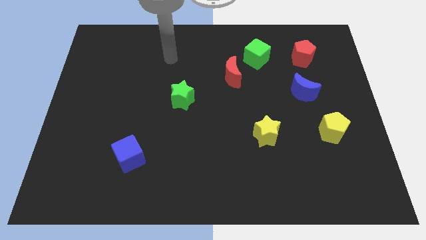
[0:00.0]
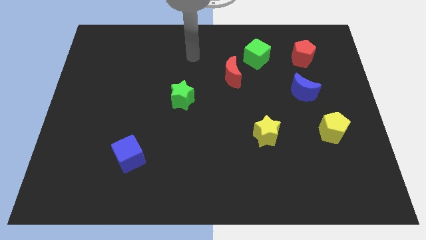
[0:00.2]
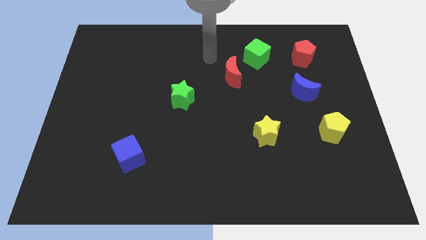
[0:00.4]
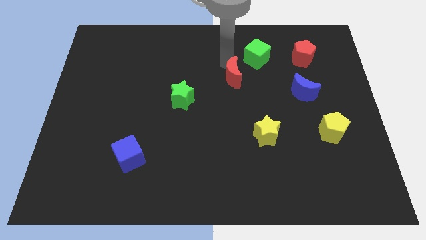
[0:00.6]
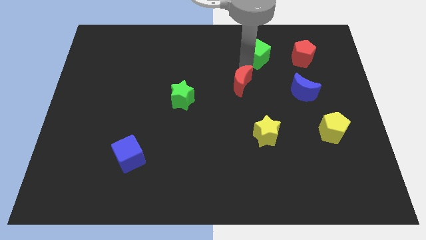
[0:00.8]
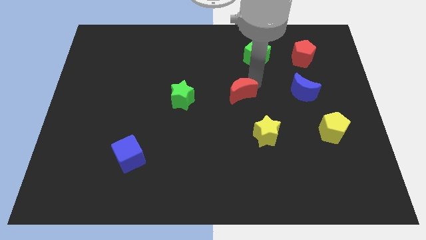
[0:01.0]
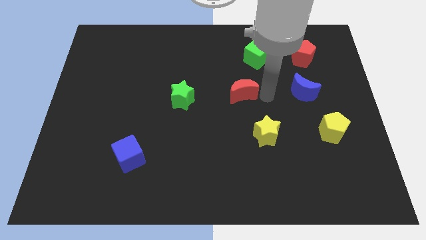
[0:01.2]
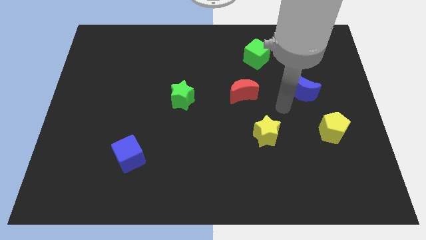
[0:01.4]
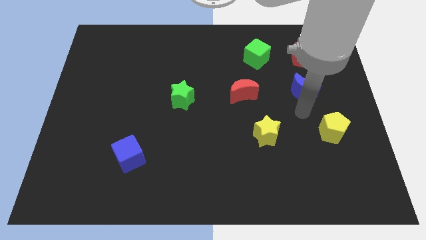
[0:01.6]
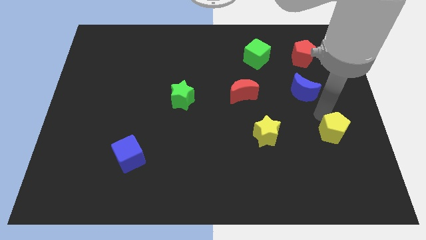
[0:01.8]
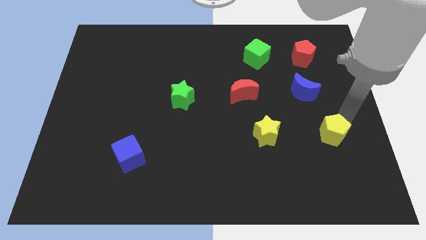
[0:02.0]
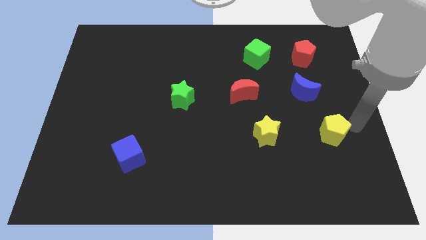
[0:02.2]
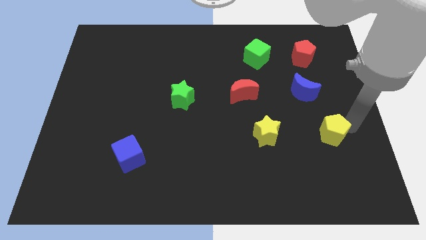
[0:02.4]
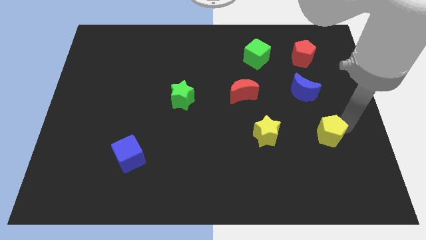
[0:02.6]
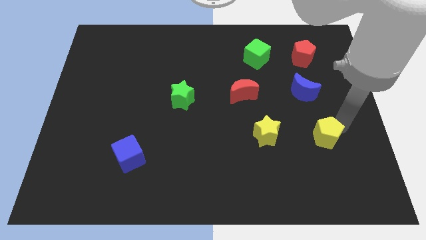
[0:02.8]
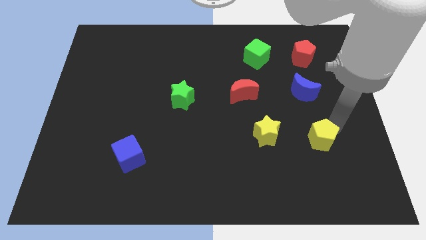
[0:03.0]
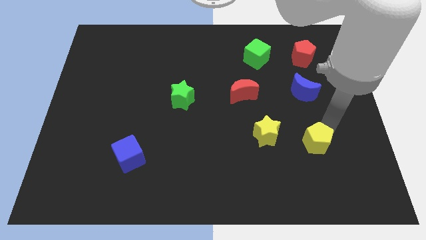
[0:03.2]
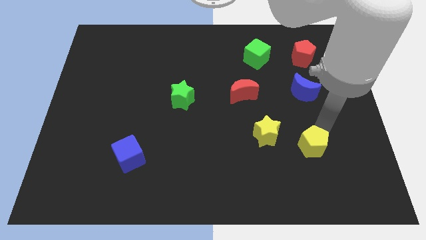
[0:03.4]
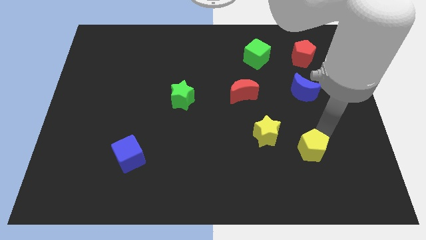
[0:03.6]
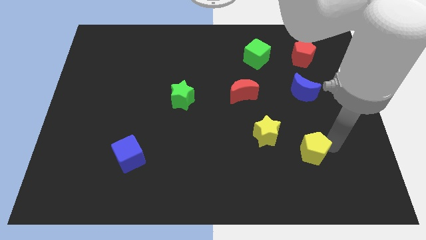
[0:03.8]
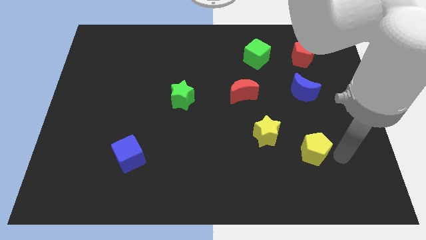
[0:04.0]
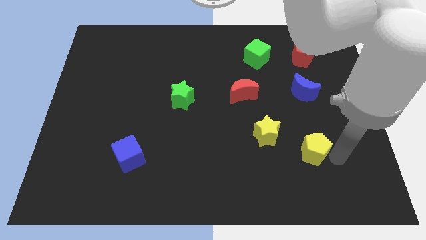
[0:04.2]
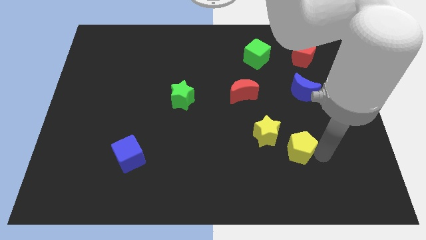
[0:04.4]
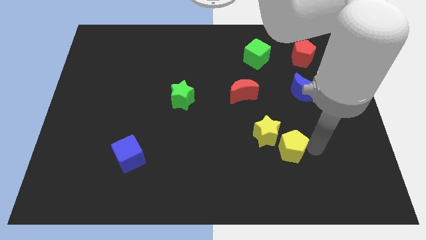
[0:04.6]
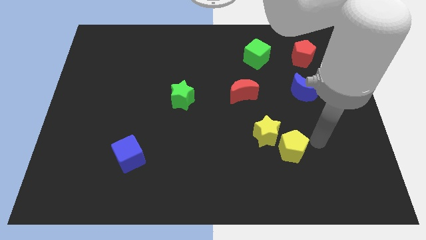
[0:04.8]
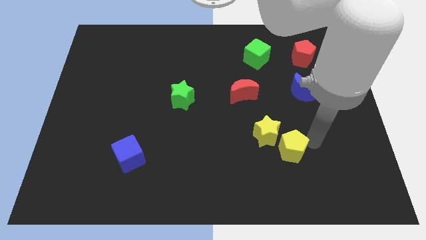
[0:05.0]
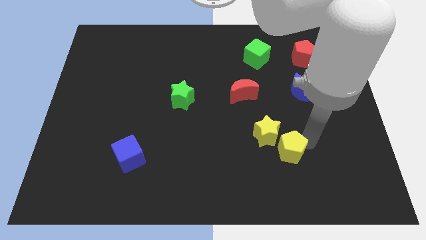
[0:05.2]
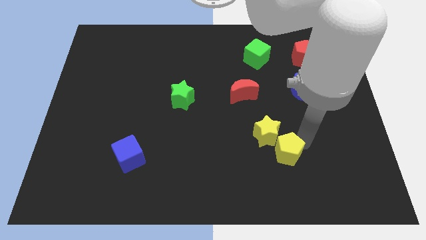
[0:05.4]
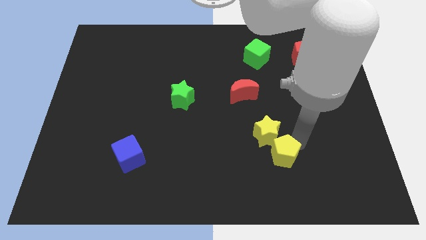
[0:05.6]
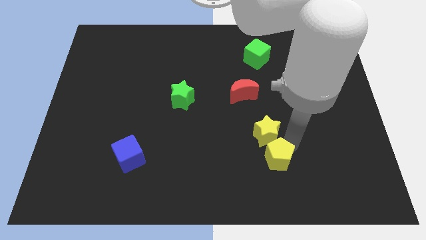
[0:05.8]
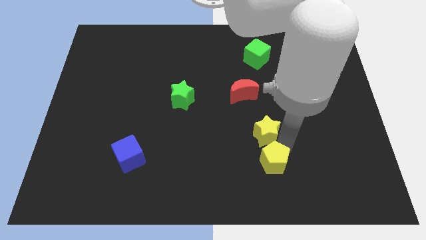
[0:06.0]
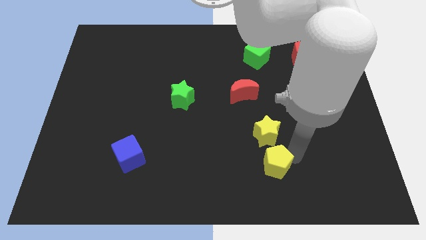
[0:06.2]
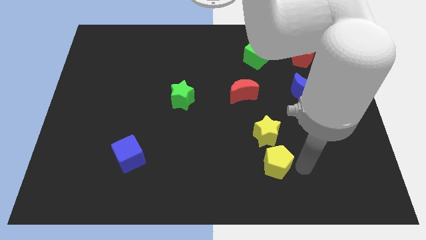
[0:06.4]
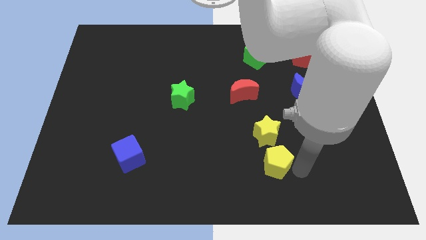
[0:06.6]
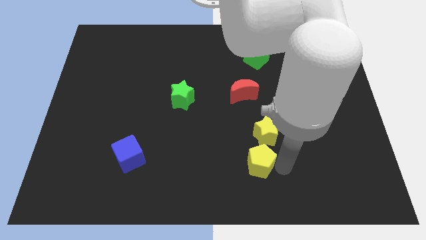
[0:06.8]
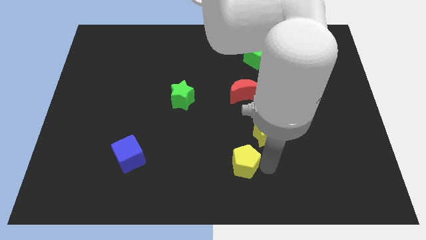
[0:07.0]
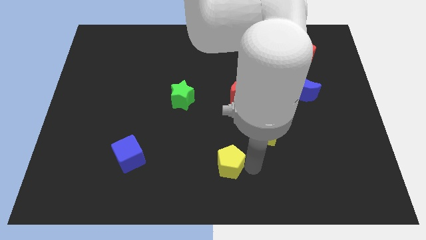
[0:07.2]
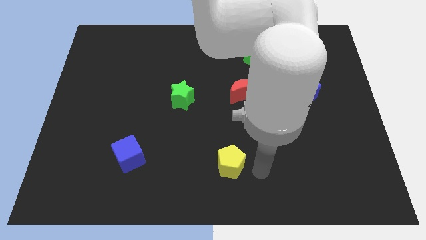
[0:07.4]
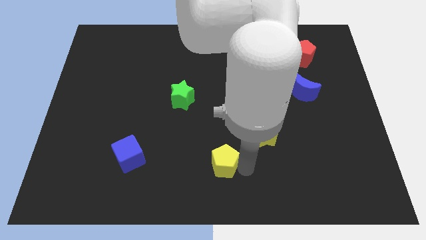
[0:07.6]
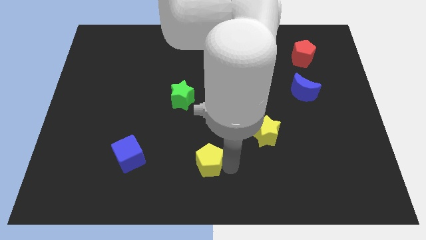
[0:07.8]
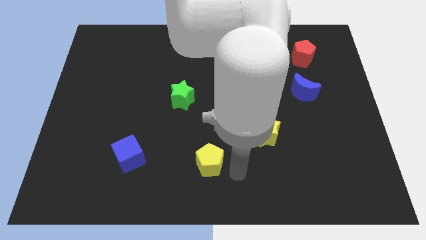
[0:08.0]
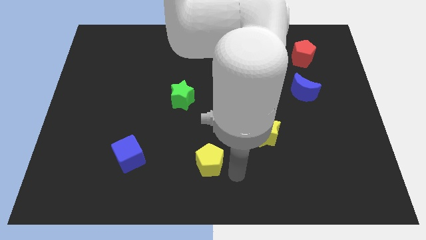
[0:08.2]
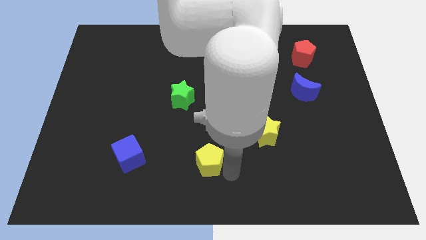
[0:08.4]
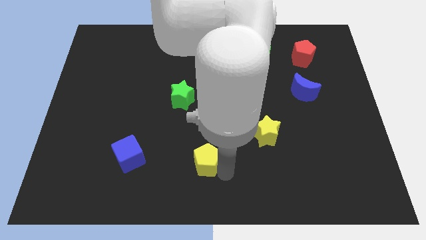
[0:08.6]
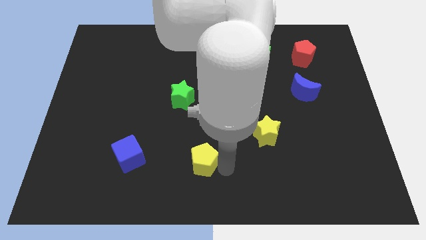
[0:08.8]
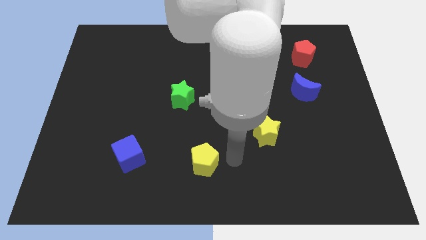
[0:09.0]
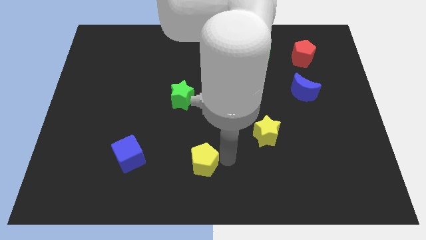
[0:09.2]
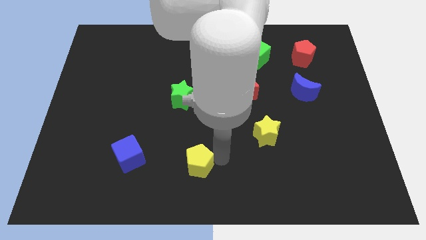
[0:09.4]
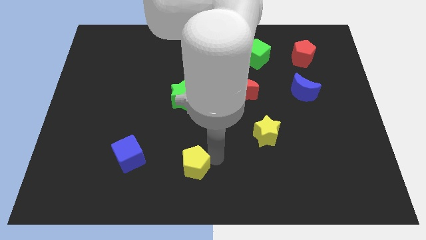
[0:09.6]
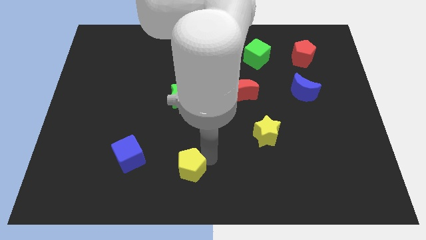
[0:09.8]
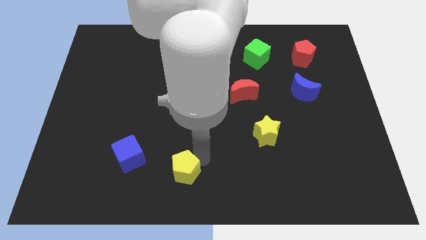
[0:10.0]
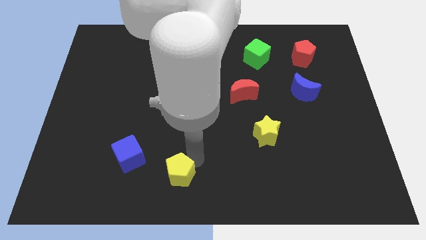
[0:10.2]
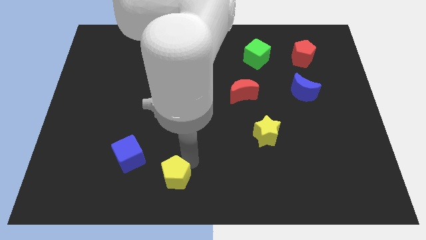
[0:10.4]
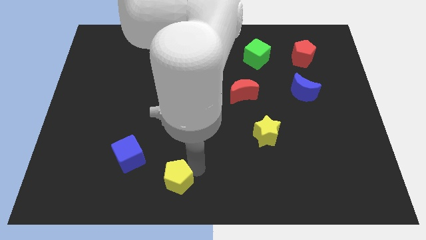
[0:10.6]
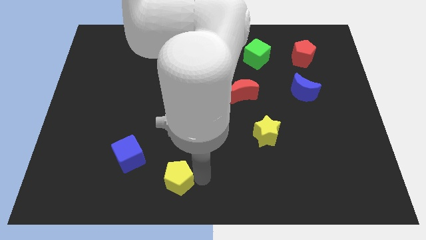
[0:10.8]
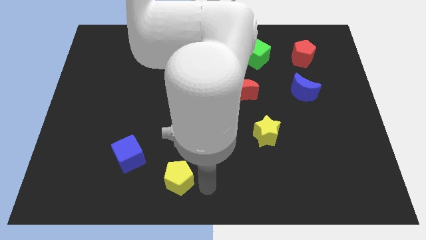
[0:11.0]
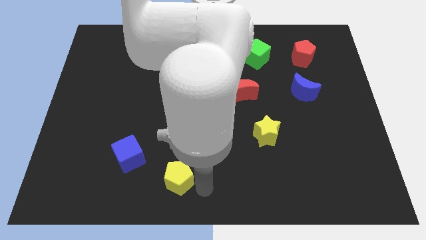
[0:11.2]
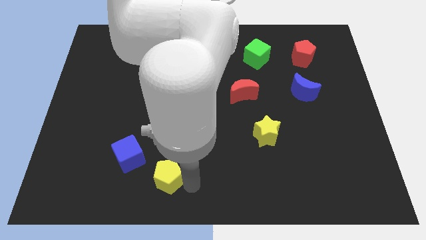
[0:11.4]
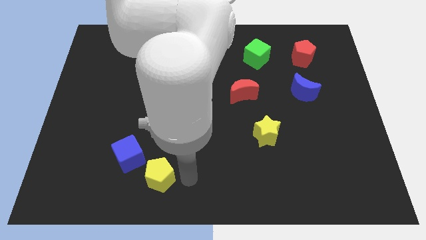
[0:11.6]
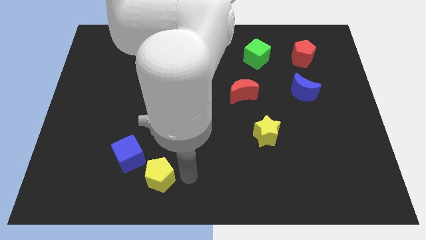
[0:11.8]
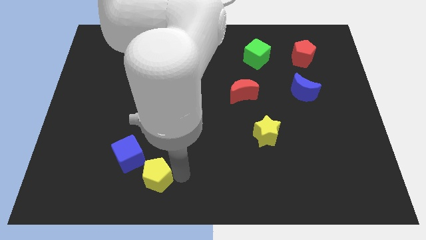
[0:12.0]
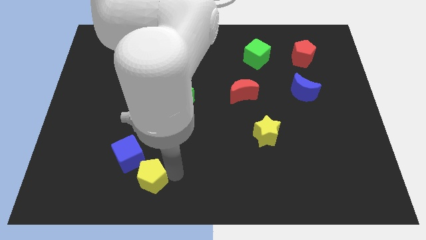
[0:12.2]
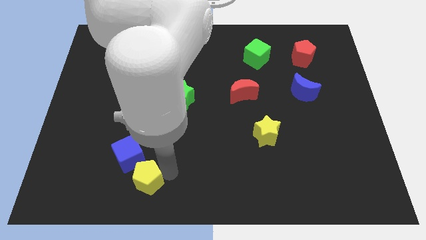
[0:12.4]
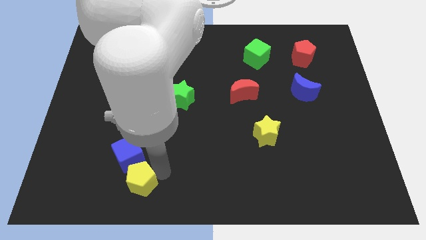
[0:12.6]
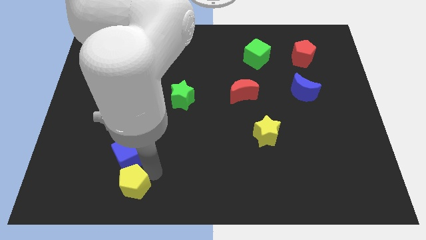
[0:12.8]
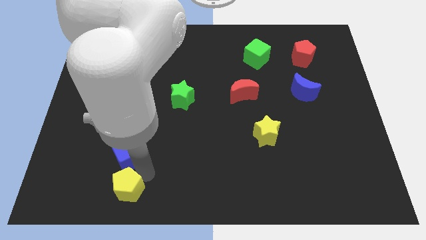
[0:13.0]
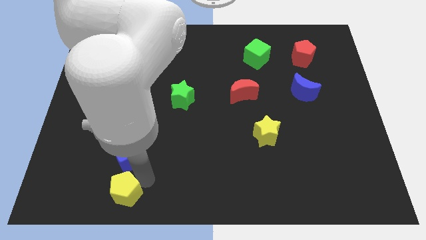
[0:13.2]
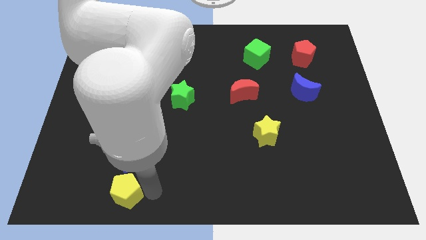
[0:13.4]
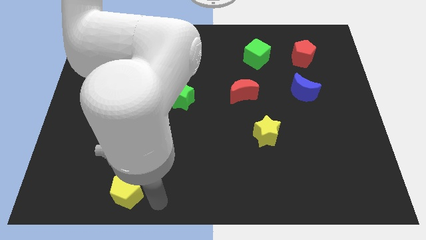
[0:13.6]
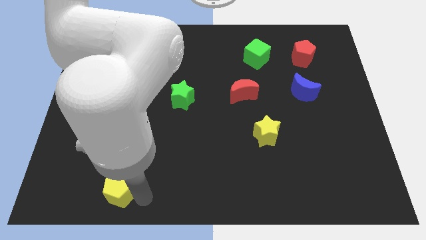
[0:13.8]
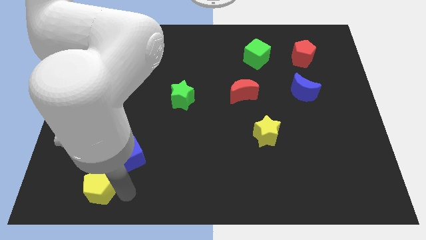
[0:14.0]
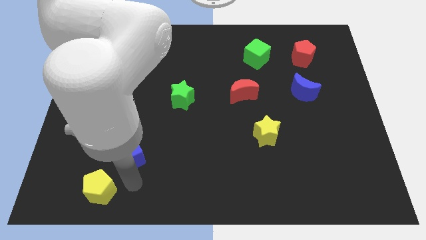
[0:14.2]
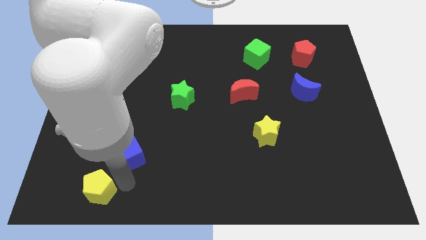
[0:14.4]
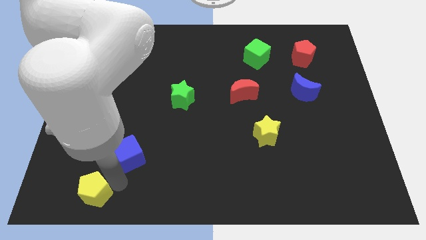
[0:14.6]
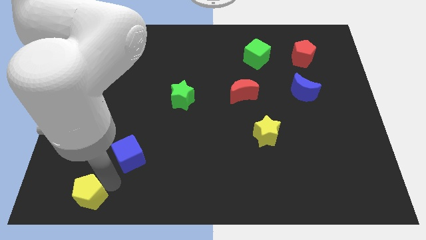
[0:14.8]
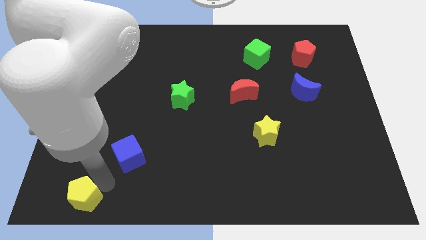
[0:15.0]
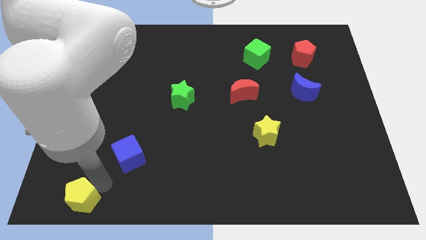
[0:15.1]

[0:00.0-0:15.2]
push the yellow pentagon to the lower left corner
